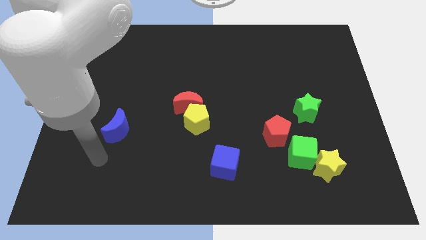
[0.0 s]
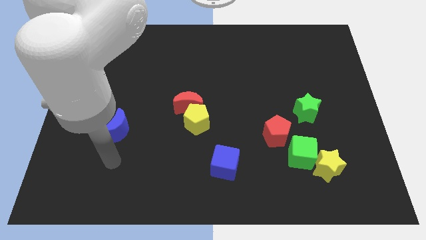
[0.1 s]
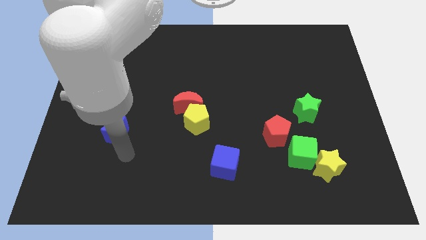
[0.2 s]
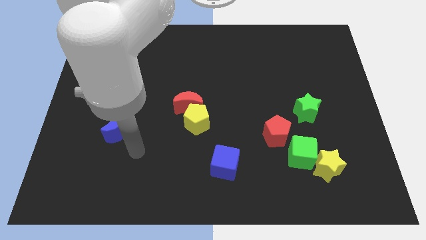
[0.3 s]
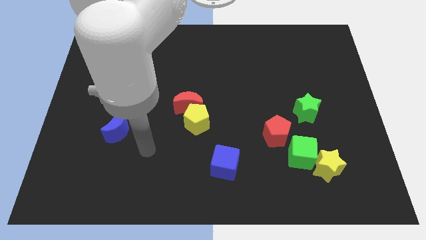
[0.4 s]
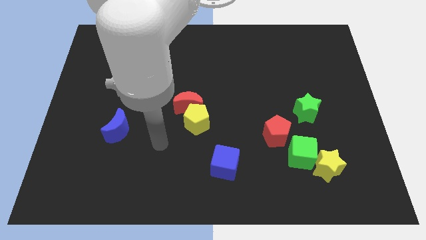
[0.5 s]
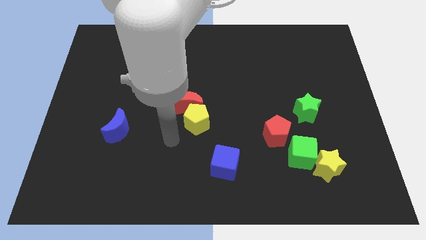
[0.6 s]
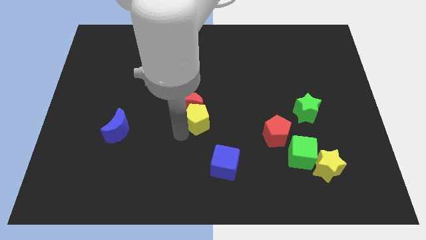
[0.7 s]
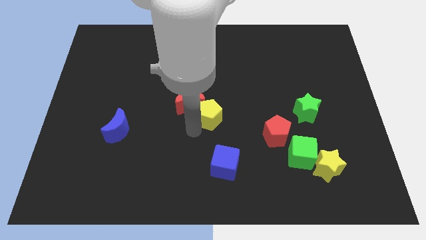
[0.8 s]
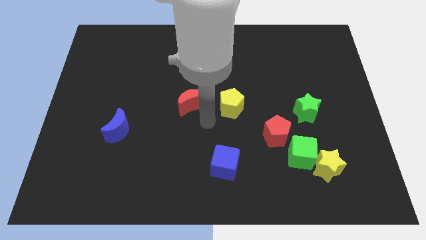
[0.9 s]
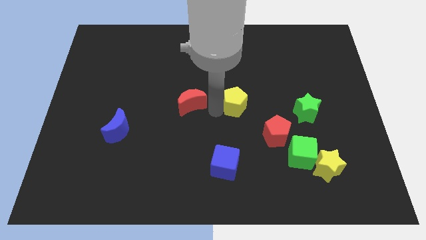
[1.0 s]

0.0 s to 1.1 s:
separate the red moon from the yellow pentagon

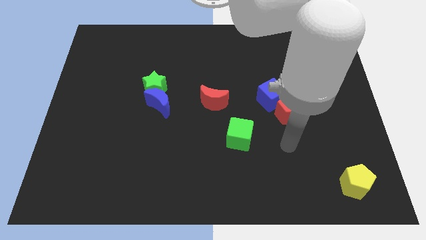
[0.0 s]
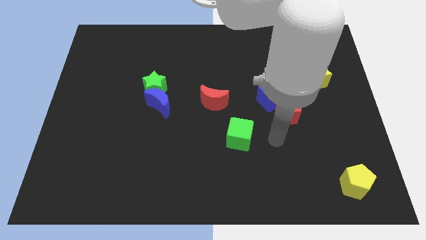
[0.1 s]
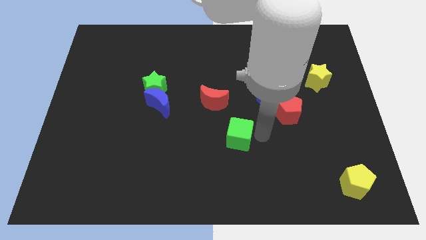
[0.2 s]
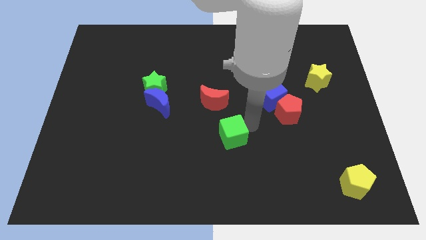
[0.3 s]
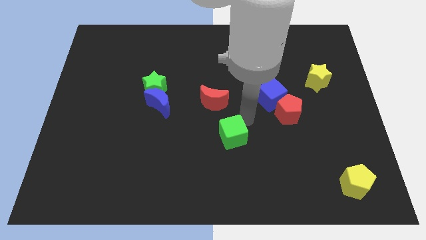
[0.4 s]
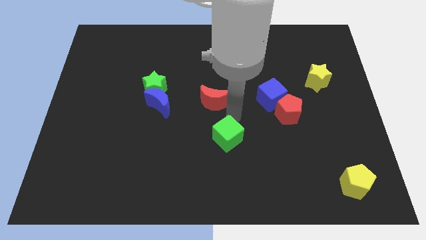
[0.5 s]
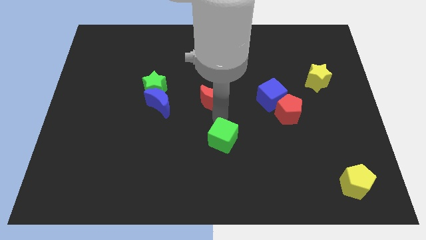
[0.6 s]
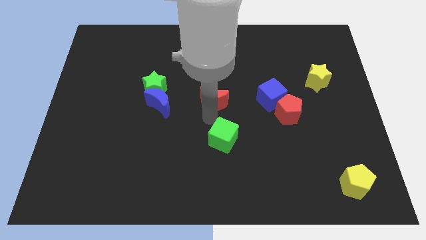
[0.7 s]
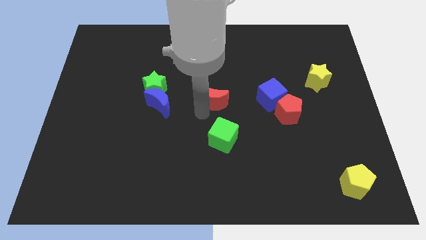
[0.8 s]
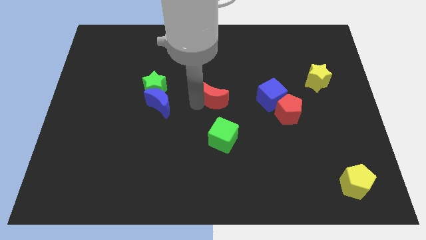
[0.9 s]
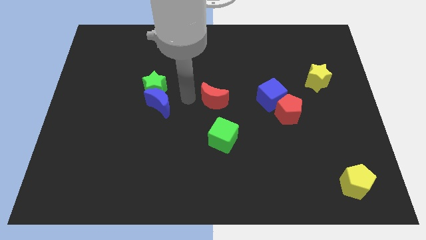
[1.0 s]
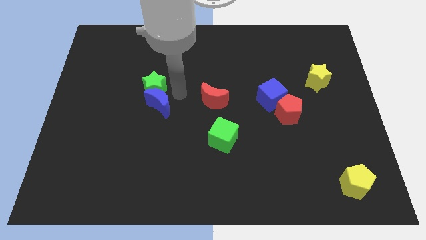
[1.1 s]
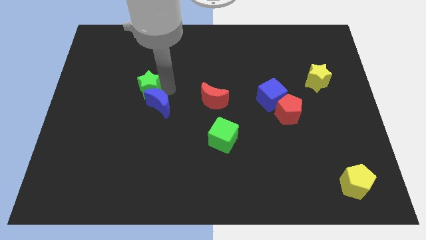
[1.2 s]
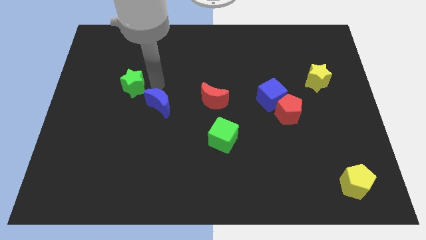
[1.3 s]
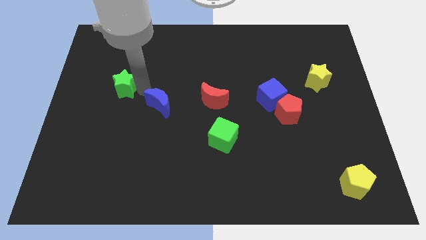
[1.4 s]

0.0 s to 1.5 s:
move the blue moon away from the green star

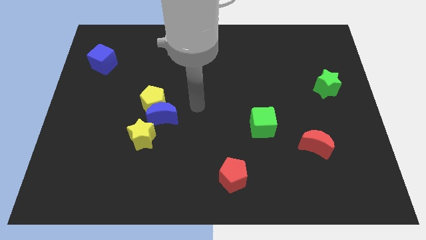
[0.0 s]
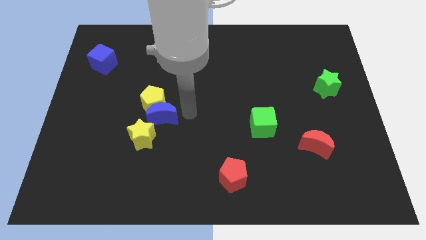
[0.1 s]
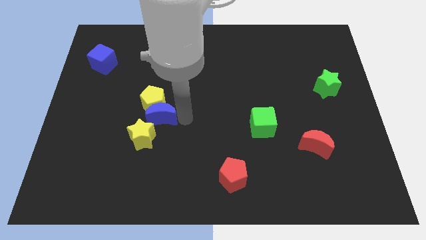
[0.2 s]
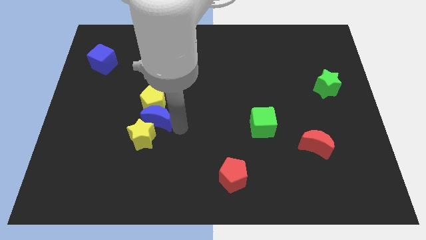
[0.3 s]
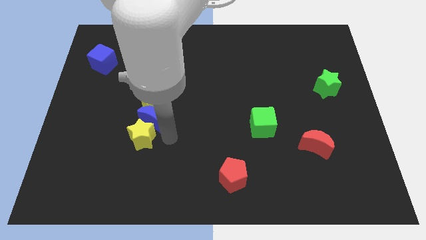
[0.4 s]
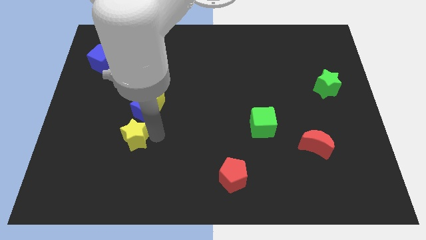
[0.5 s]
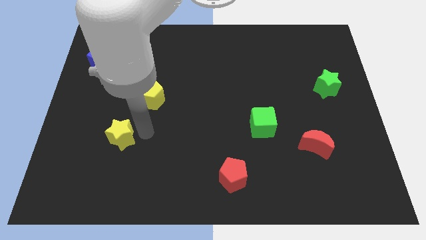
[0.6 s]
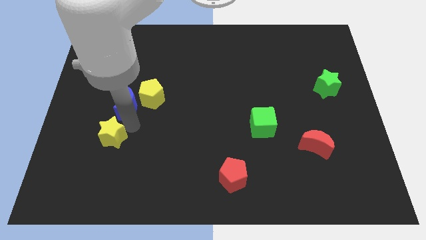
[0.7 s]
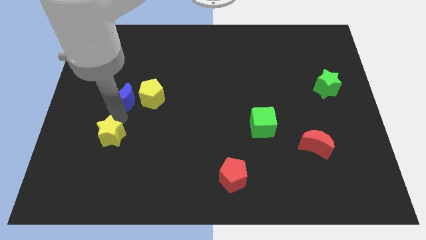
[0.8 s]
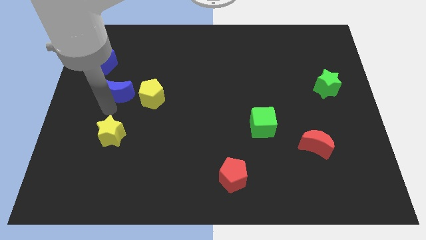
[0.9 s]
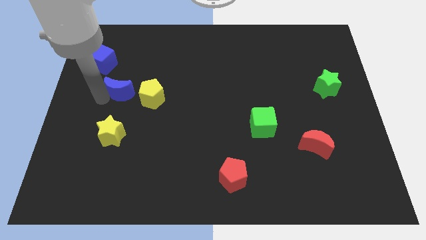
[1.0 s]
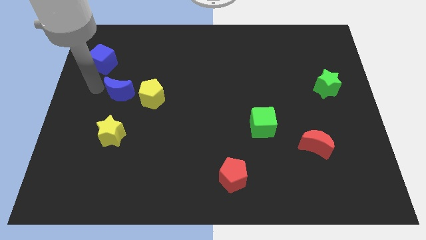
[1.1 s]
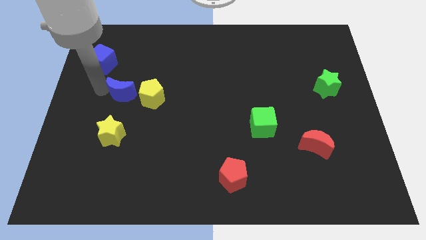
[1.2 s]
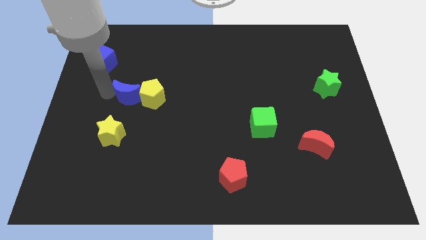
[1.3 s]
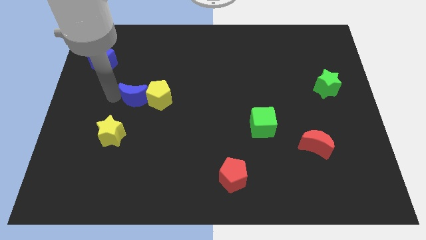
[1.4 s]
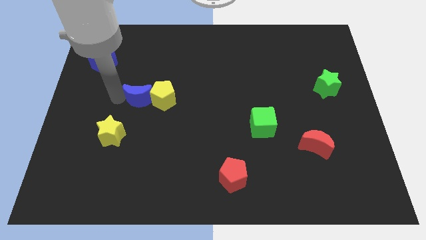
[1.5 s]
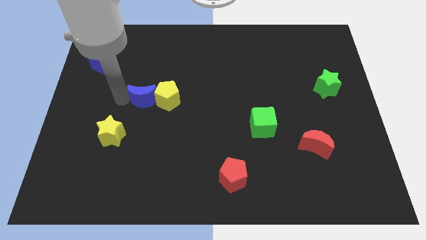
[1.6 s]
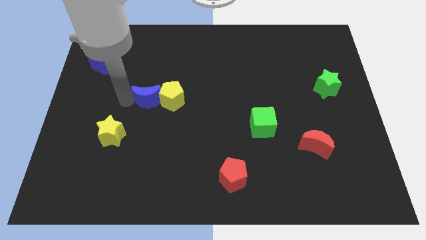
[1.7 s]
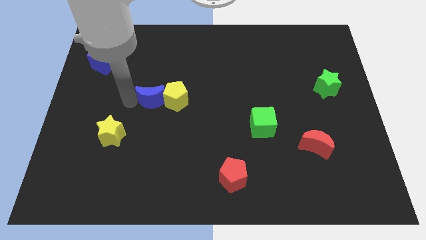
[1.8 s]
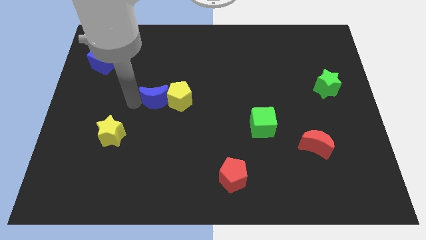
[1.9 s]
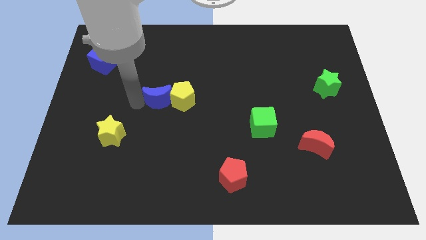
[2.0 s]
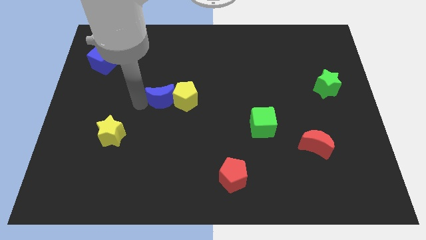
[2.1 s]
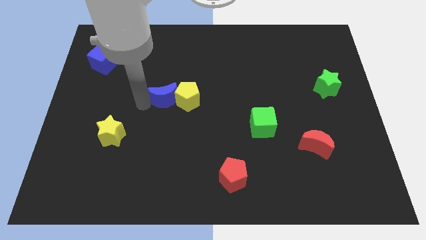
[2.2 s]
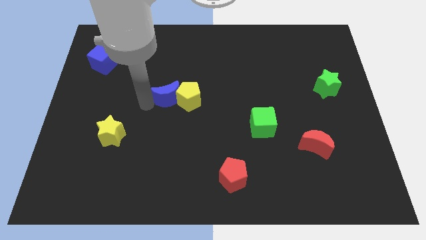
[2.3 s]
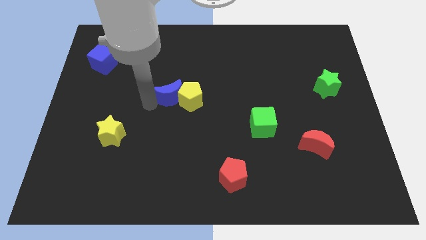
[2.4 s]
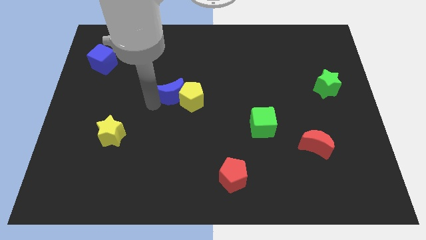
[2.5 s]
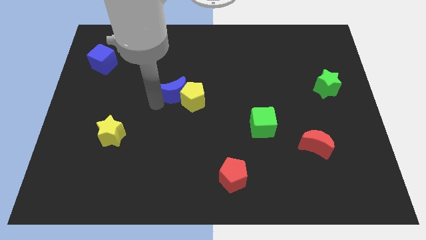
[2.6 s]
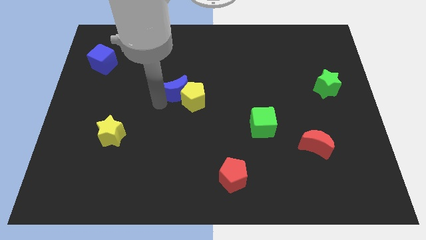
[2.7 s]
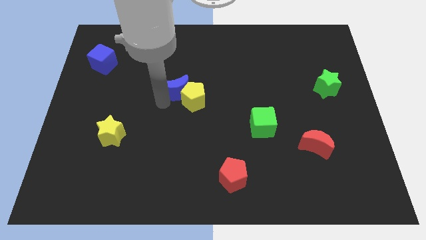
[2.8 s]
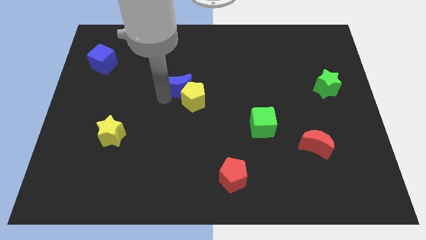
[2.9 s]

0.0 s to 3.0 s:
move the blue moon away from the yellow pentagon and yellow star

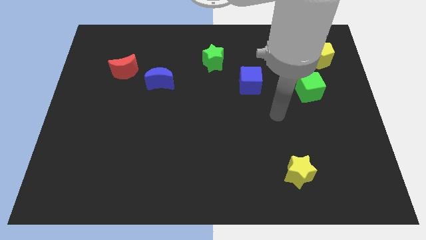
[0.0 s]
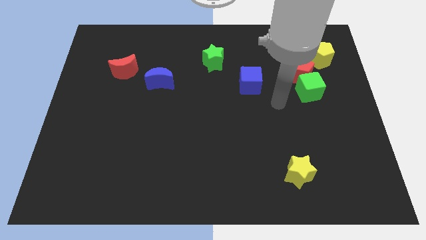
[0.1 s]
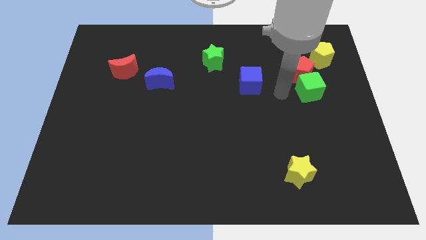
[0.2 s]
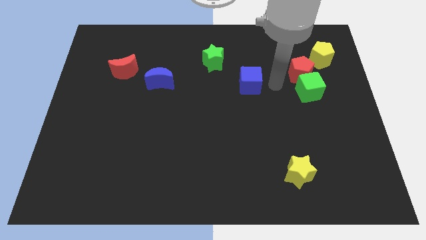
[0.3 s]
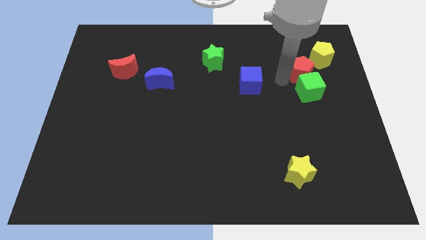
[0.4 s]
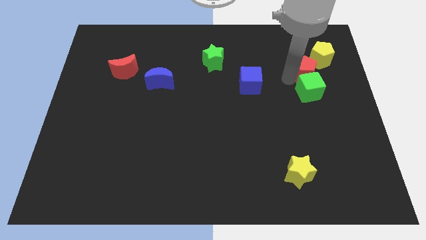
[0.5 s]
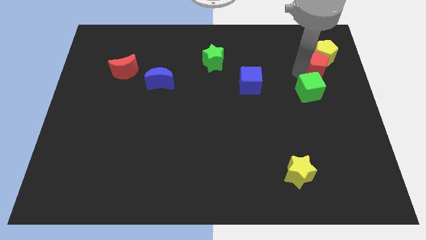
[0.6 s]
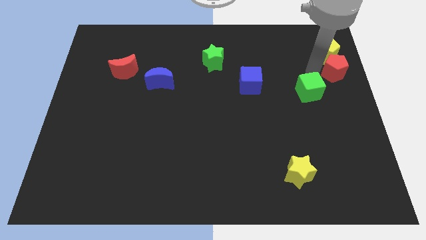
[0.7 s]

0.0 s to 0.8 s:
separate the green cube from the red pentagon

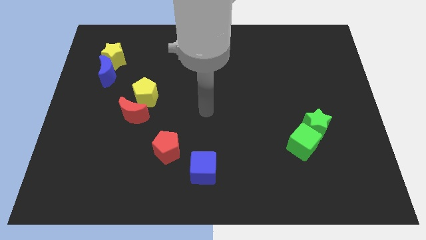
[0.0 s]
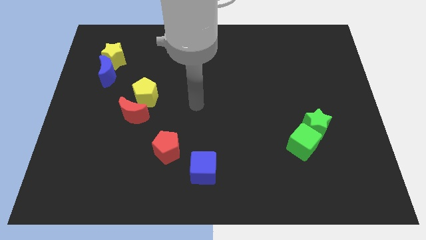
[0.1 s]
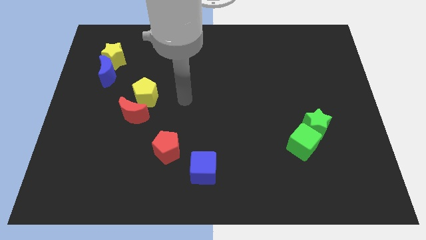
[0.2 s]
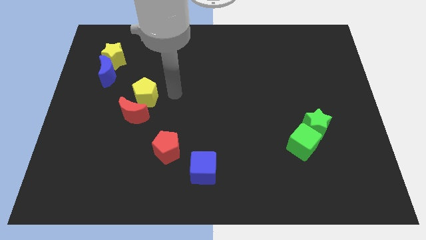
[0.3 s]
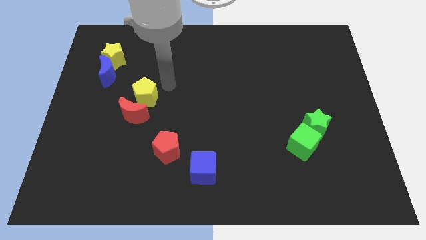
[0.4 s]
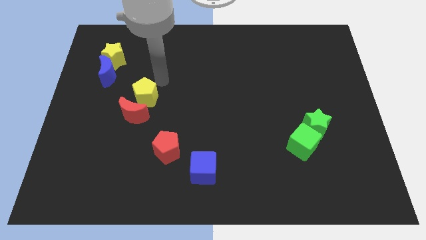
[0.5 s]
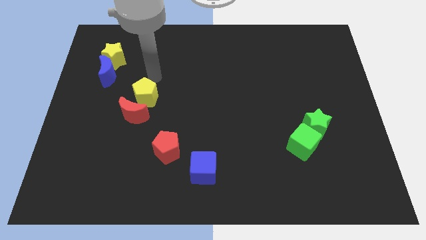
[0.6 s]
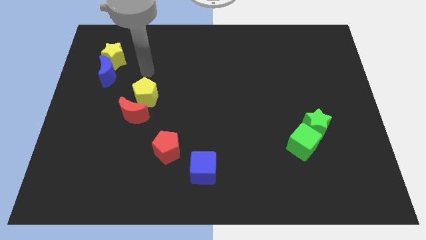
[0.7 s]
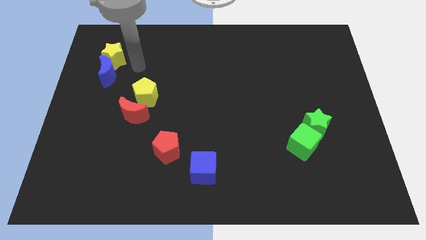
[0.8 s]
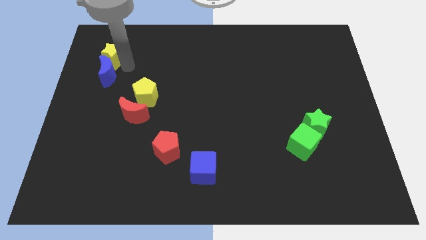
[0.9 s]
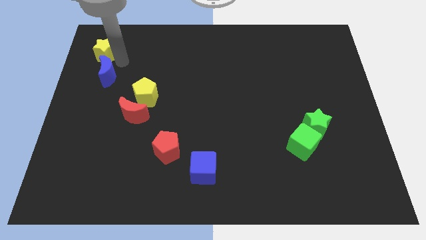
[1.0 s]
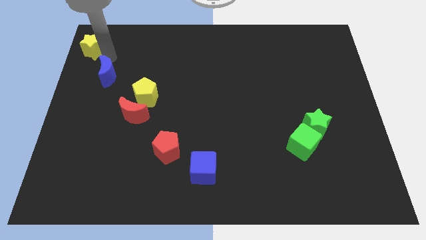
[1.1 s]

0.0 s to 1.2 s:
pull the blue moon apart from the yellow star

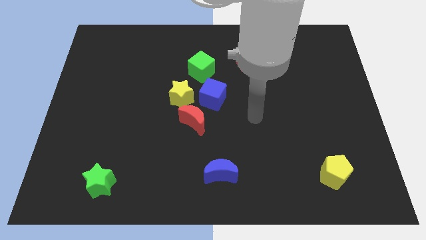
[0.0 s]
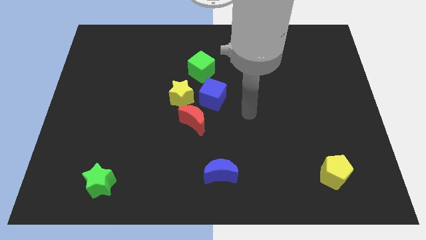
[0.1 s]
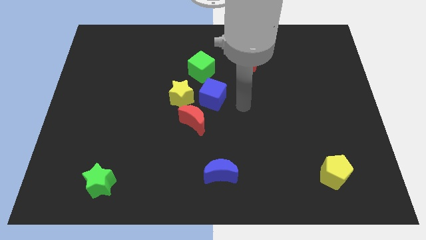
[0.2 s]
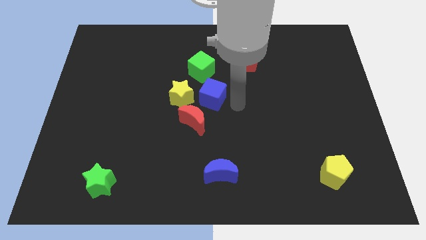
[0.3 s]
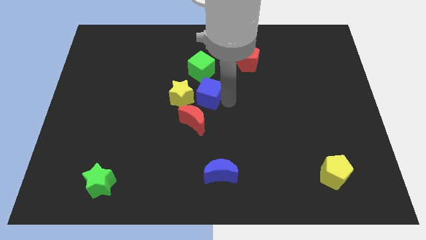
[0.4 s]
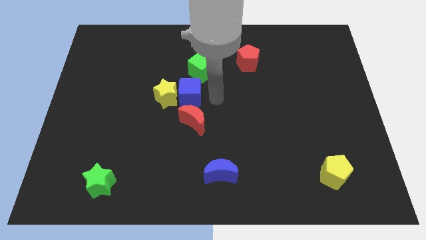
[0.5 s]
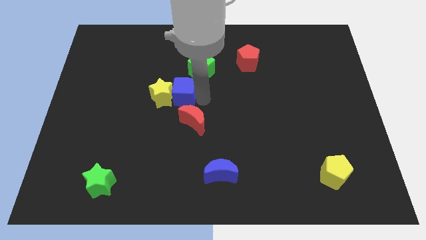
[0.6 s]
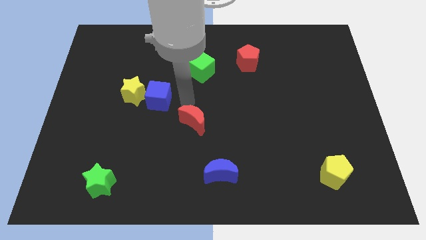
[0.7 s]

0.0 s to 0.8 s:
move the red moon away from the yellow star and blue cube

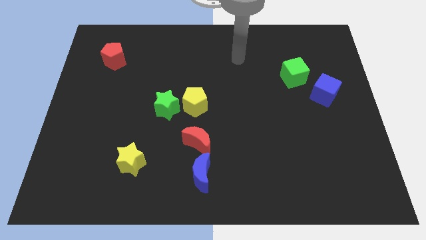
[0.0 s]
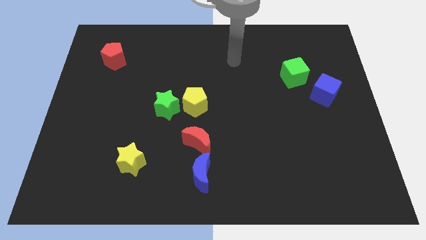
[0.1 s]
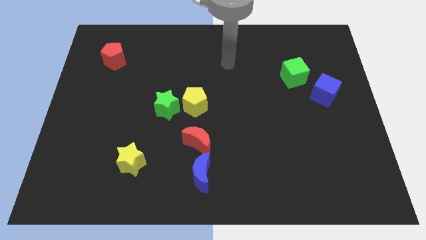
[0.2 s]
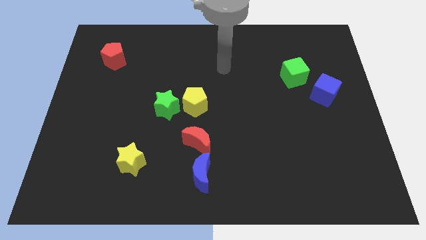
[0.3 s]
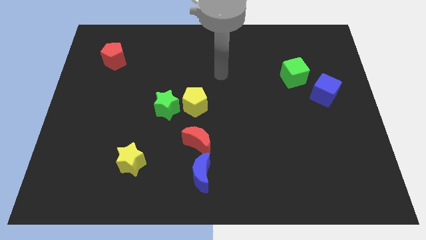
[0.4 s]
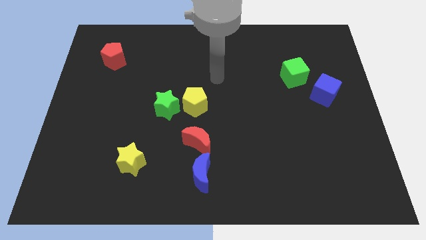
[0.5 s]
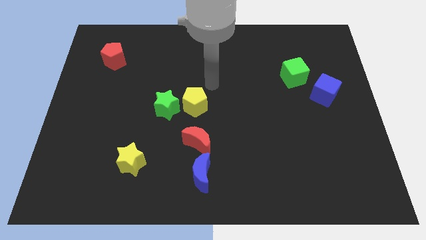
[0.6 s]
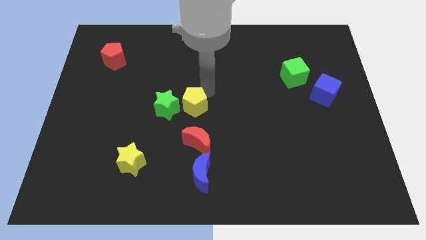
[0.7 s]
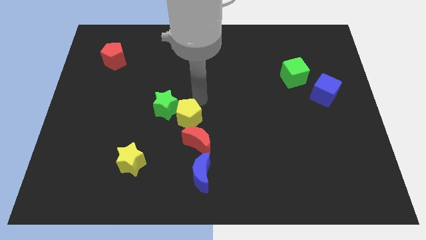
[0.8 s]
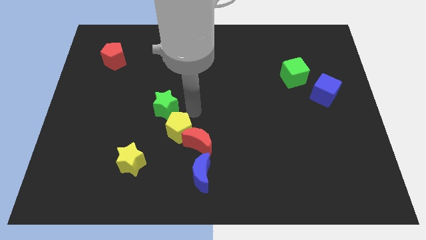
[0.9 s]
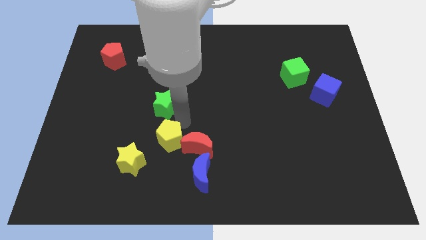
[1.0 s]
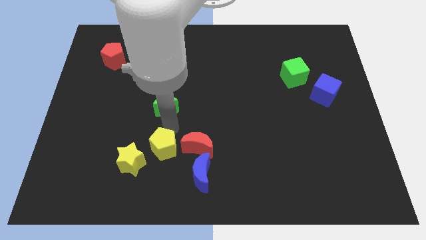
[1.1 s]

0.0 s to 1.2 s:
separate the green star from the yellow pentagon
